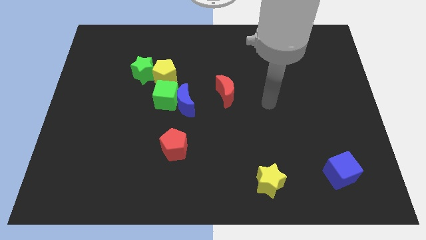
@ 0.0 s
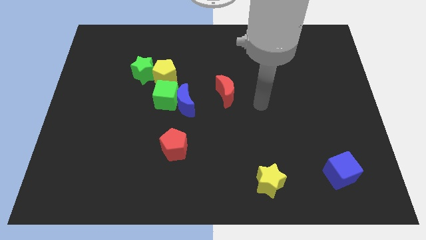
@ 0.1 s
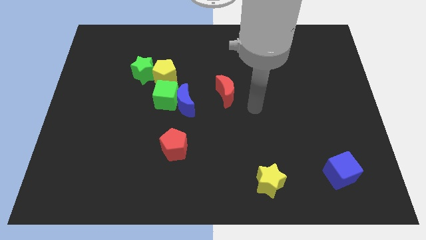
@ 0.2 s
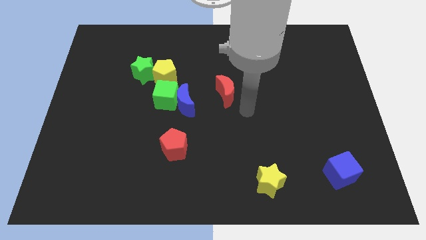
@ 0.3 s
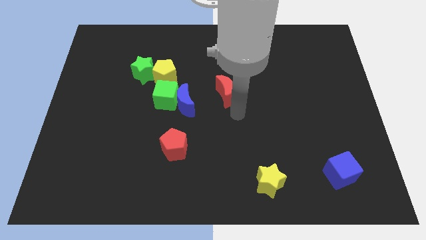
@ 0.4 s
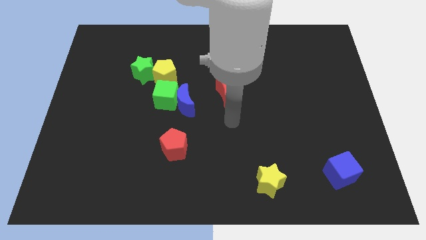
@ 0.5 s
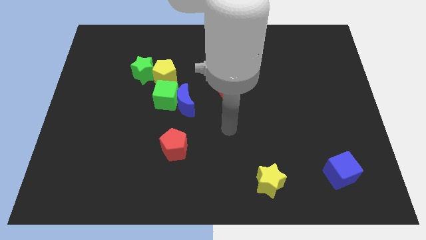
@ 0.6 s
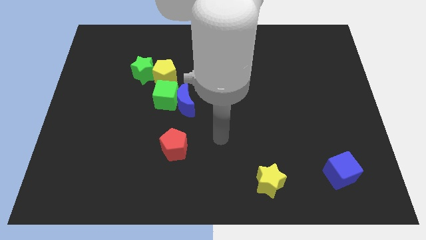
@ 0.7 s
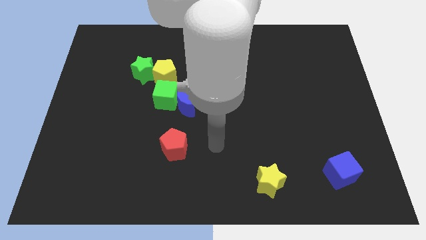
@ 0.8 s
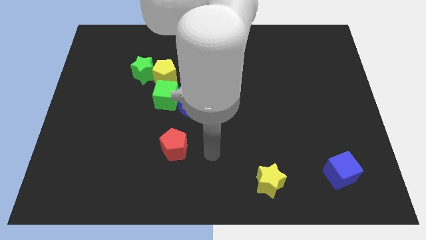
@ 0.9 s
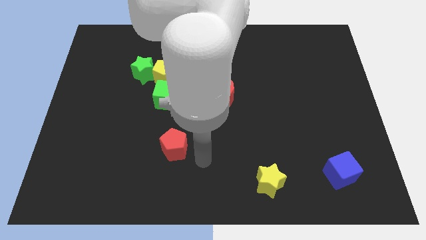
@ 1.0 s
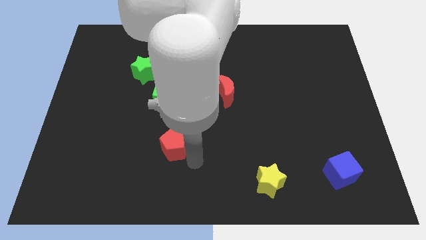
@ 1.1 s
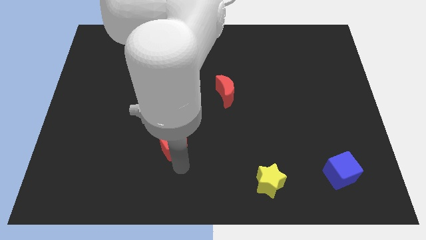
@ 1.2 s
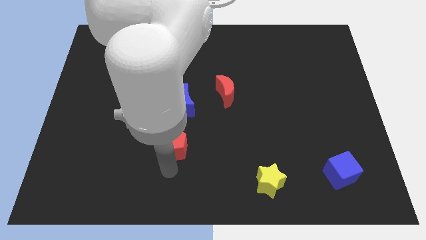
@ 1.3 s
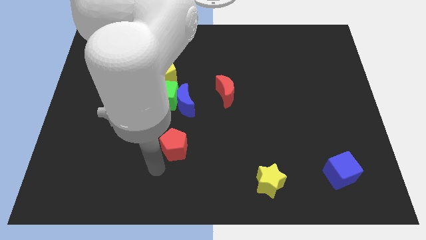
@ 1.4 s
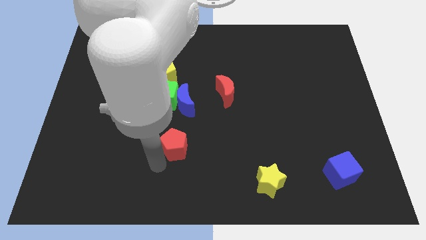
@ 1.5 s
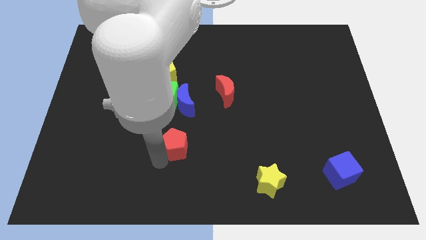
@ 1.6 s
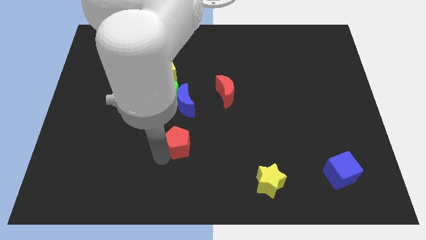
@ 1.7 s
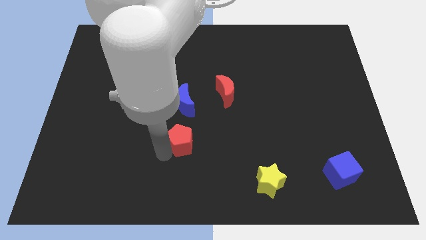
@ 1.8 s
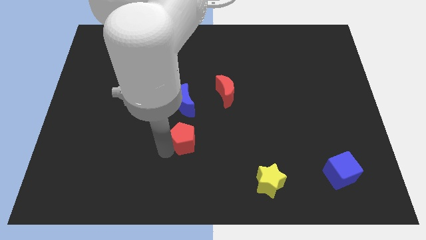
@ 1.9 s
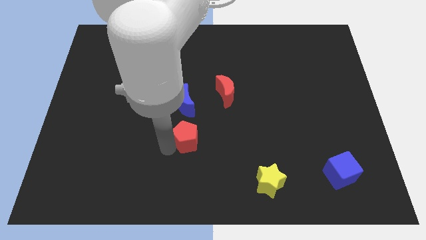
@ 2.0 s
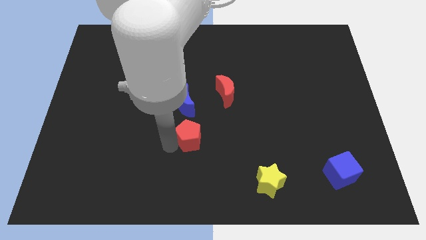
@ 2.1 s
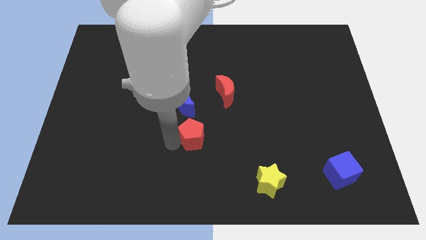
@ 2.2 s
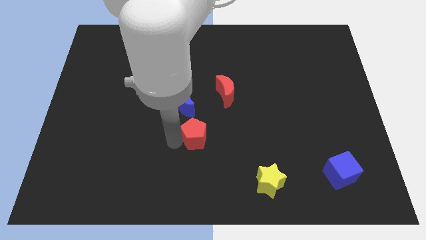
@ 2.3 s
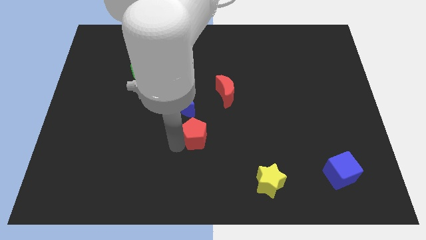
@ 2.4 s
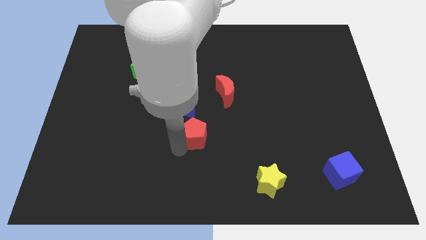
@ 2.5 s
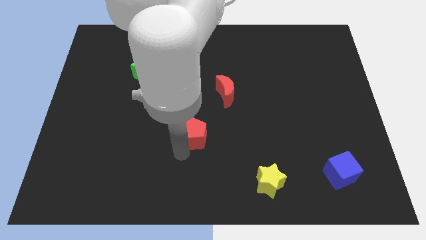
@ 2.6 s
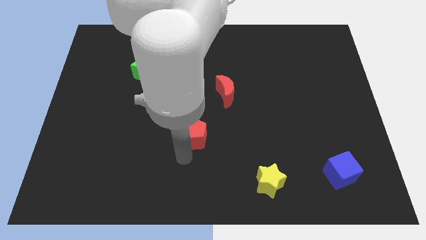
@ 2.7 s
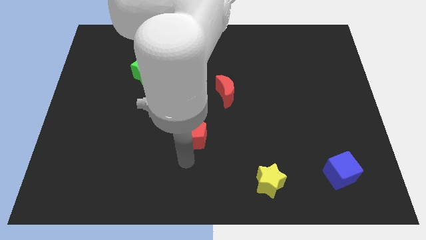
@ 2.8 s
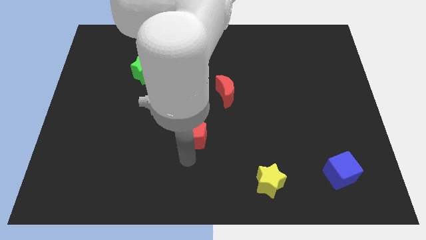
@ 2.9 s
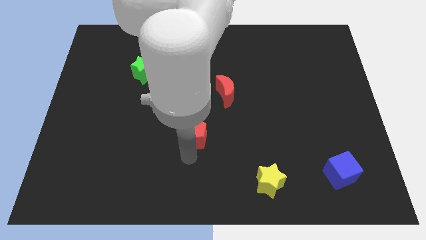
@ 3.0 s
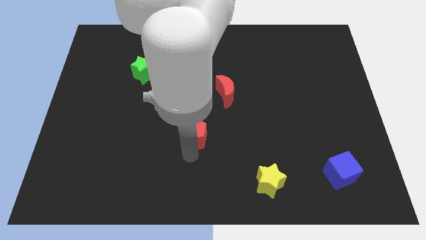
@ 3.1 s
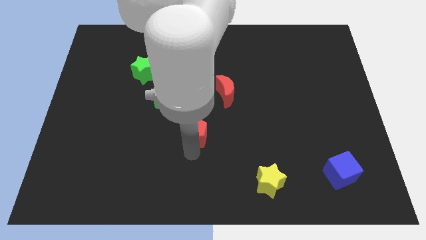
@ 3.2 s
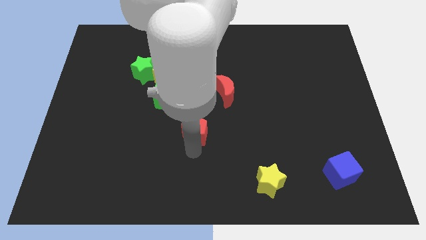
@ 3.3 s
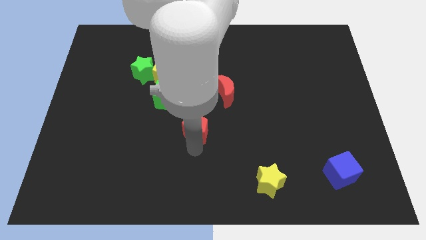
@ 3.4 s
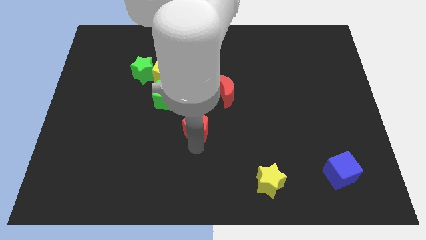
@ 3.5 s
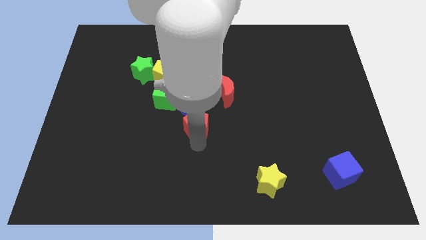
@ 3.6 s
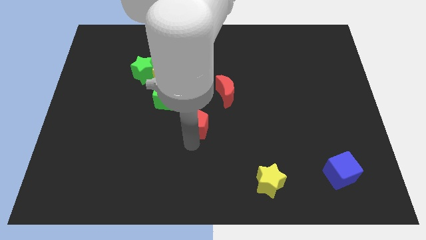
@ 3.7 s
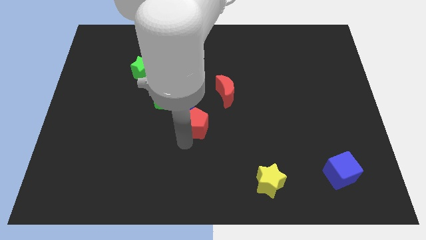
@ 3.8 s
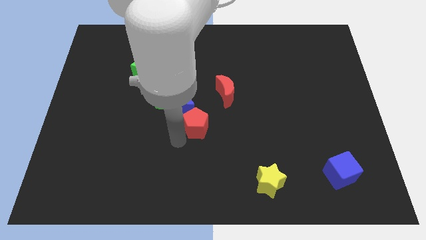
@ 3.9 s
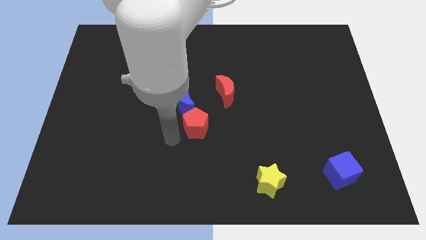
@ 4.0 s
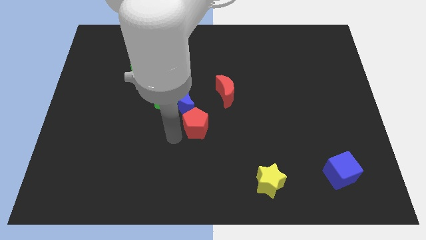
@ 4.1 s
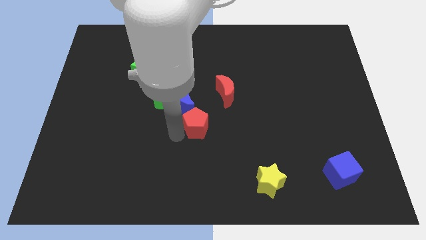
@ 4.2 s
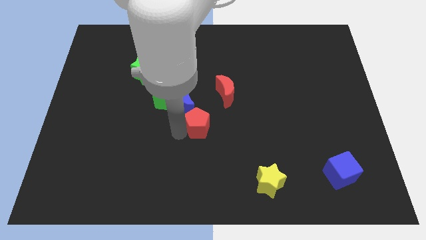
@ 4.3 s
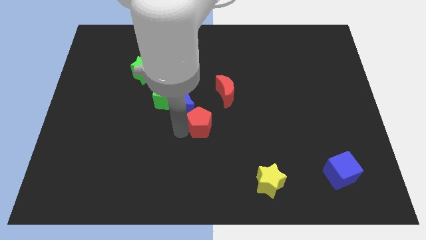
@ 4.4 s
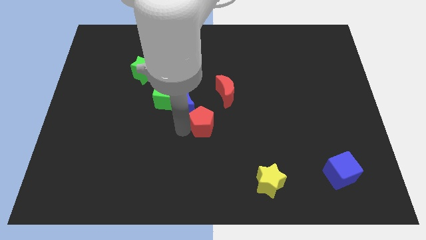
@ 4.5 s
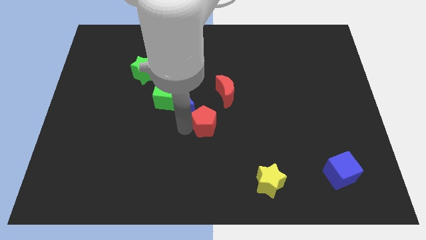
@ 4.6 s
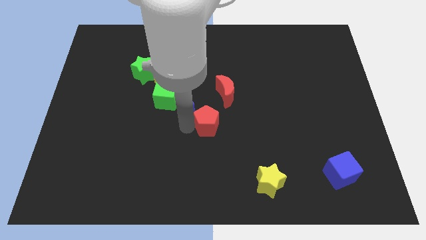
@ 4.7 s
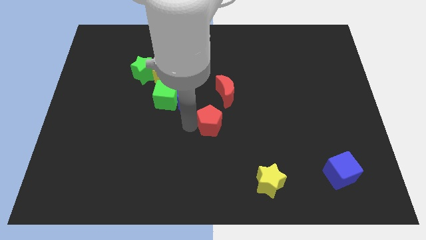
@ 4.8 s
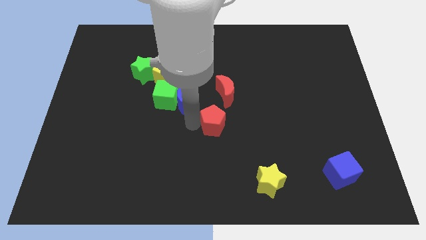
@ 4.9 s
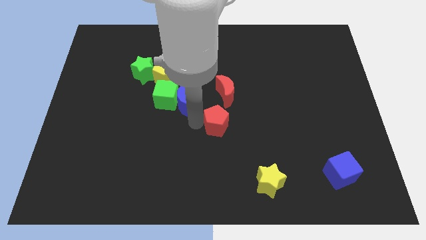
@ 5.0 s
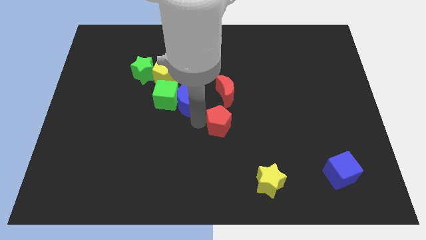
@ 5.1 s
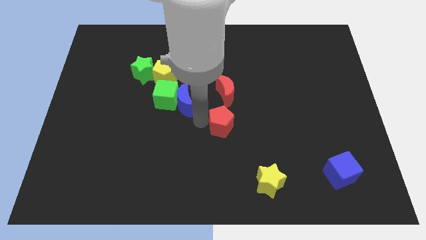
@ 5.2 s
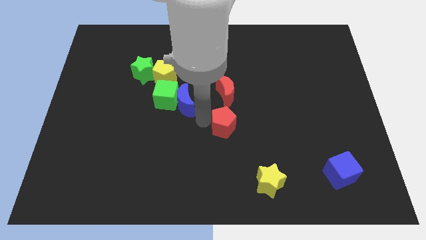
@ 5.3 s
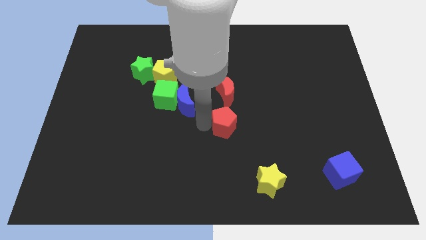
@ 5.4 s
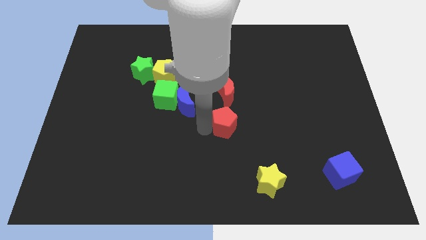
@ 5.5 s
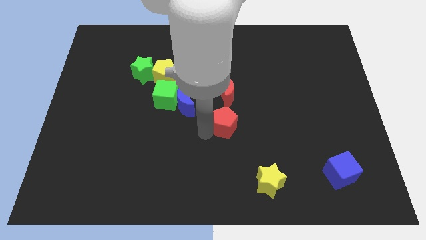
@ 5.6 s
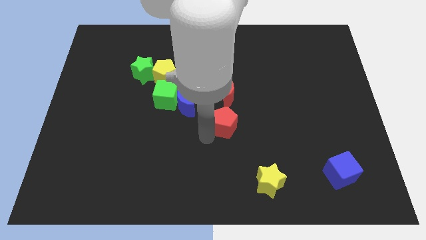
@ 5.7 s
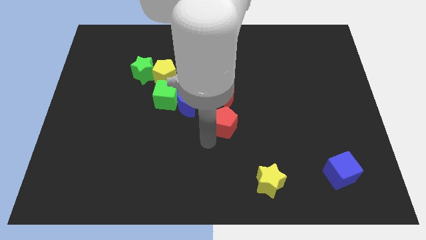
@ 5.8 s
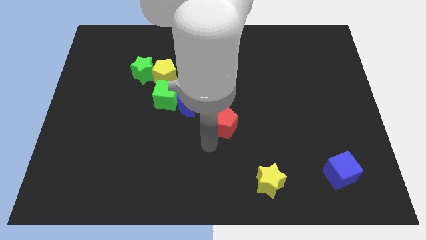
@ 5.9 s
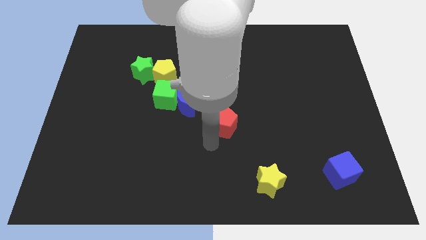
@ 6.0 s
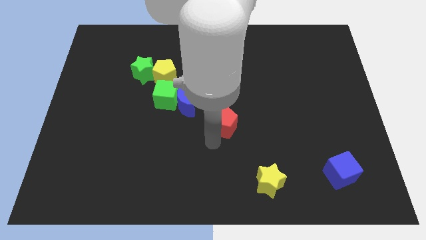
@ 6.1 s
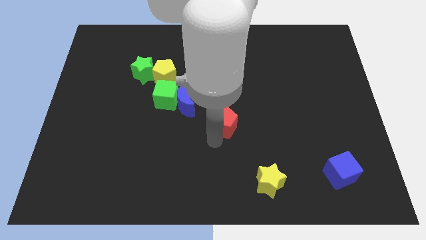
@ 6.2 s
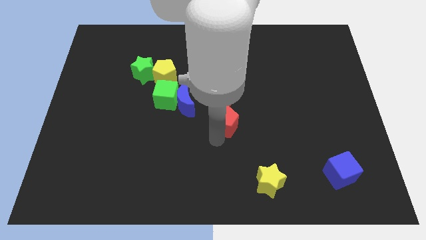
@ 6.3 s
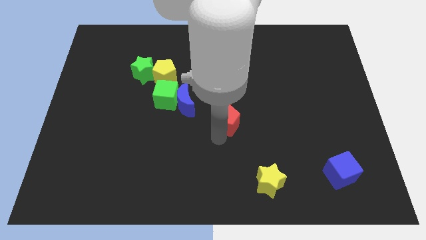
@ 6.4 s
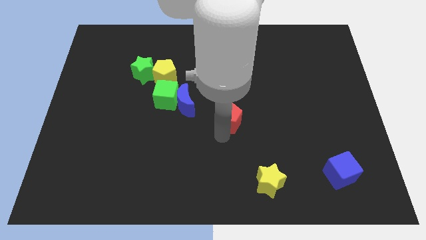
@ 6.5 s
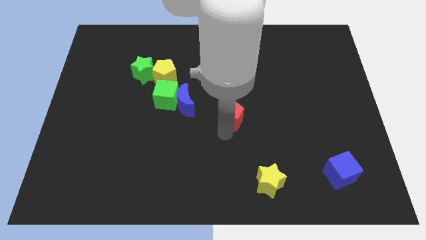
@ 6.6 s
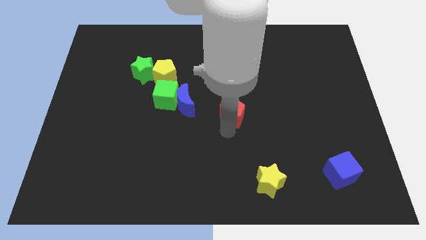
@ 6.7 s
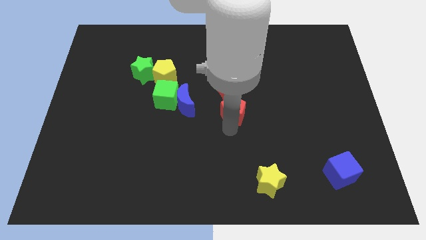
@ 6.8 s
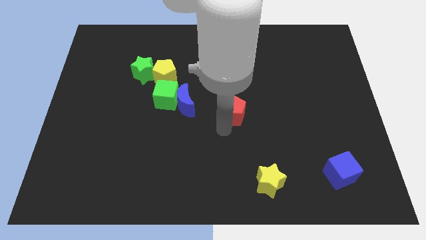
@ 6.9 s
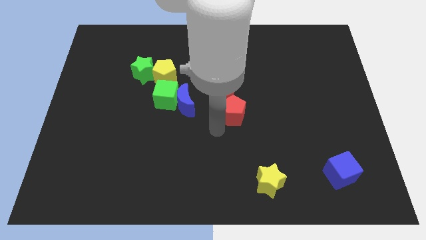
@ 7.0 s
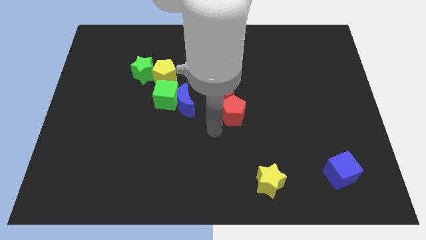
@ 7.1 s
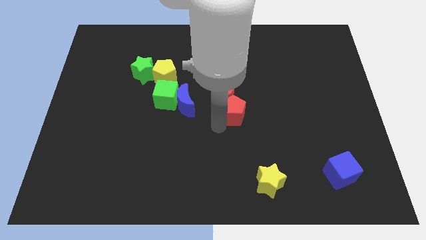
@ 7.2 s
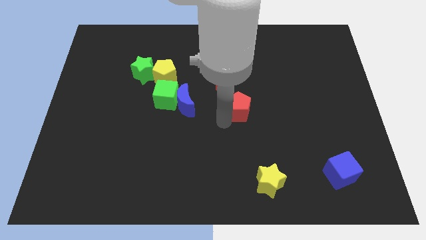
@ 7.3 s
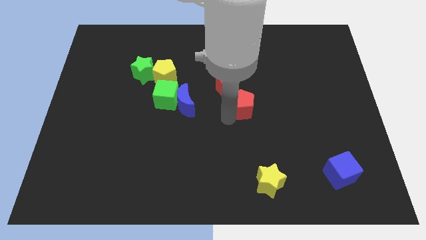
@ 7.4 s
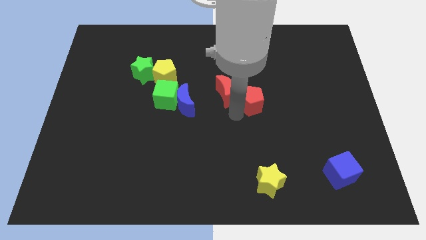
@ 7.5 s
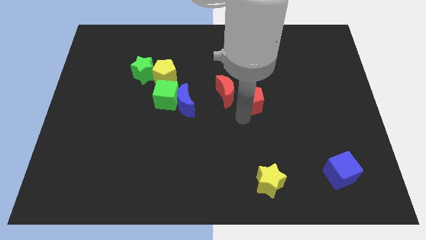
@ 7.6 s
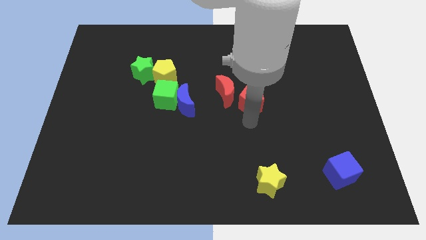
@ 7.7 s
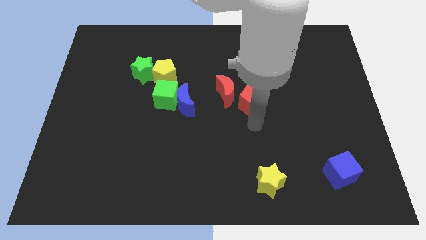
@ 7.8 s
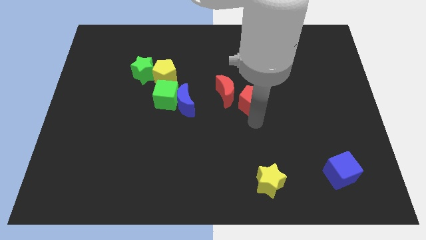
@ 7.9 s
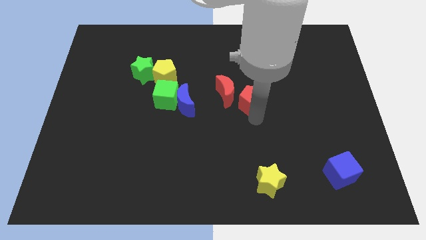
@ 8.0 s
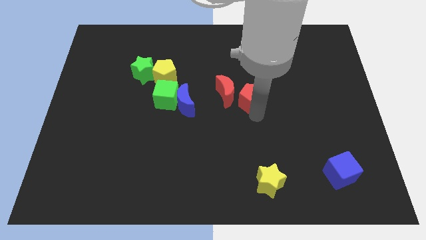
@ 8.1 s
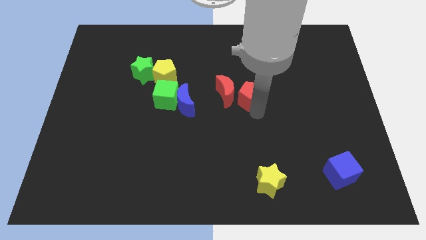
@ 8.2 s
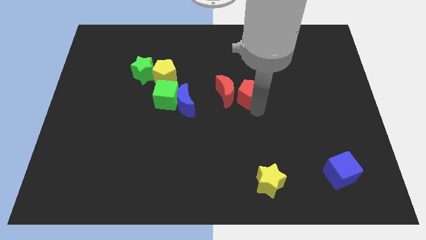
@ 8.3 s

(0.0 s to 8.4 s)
move the red pentagon diagonally up and to the right of the red moon
